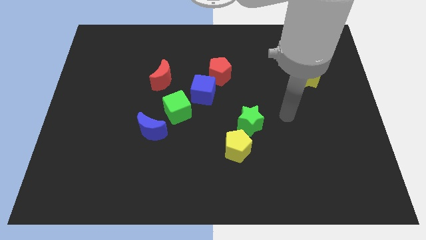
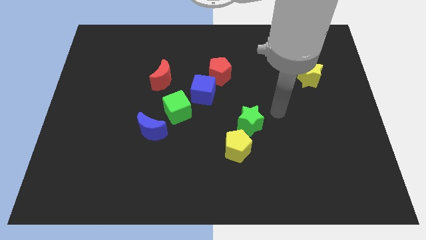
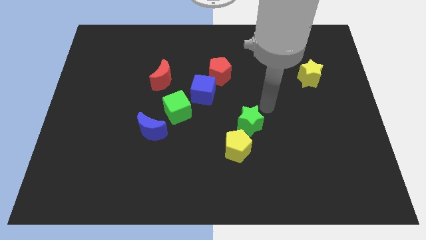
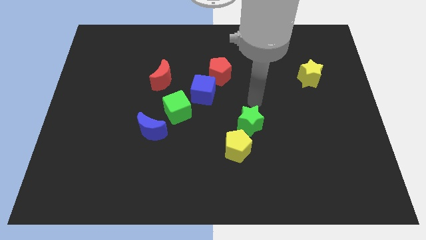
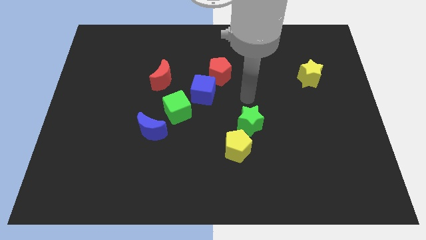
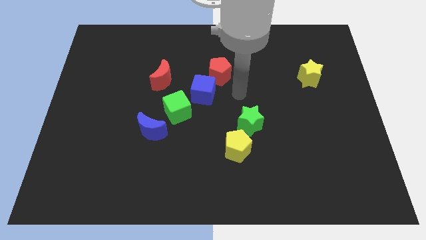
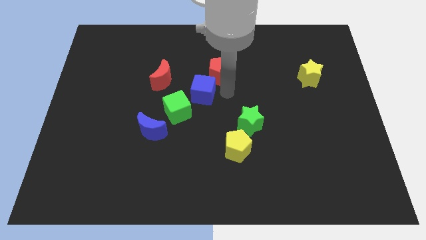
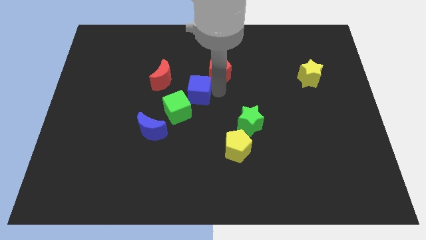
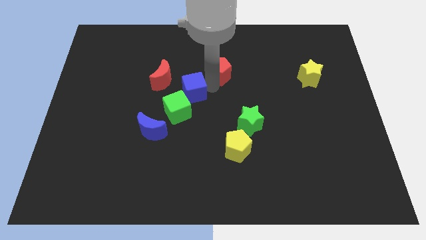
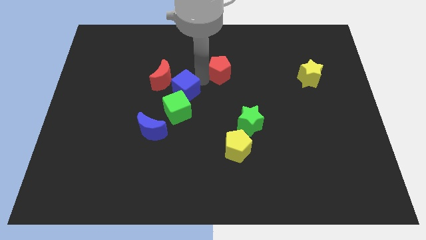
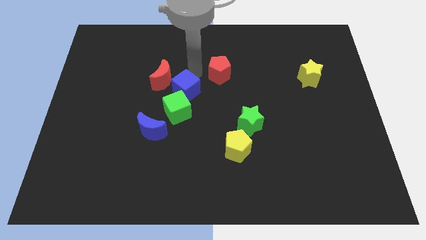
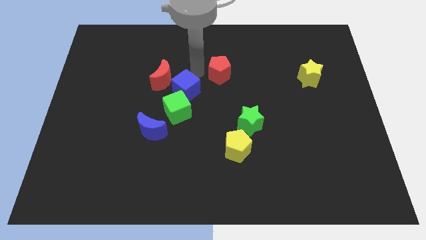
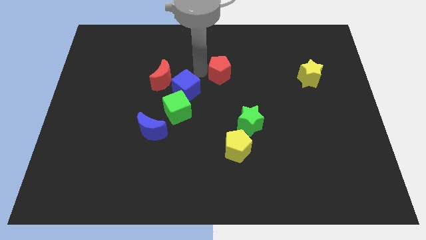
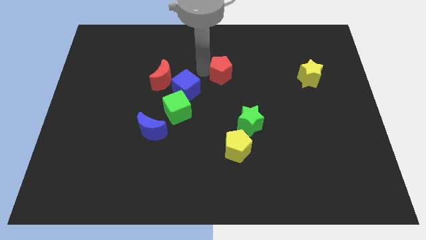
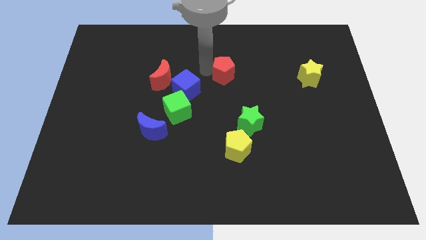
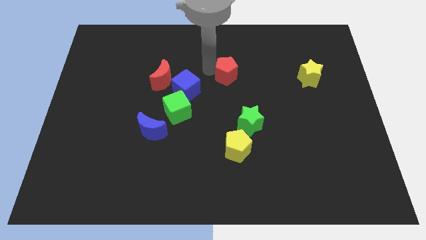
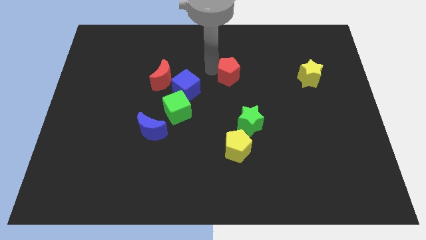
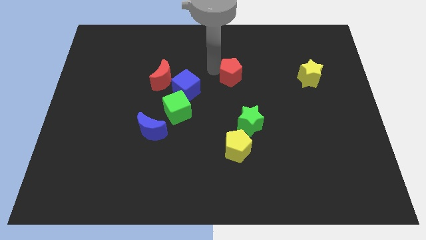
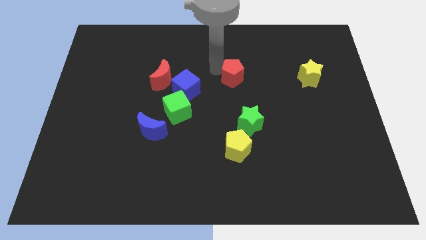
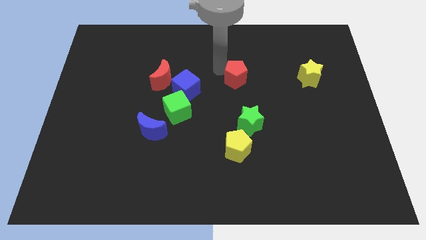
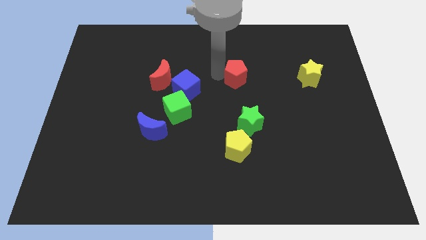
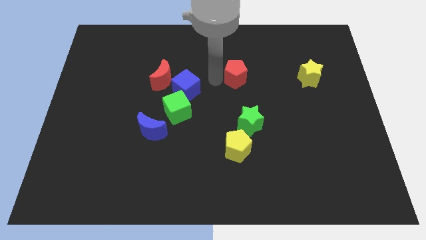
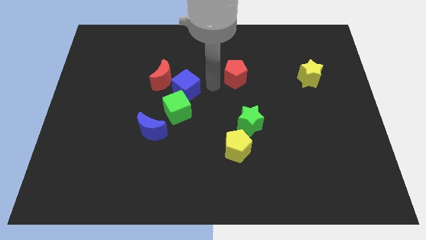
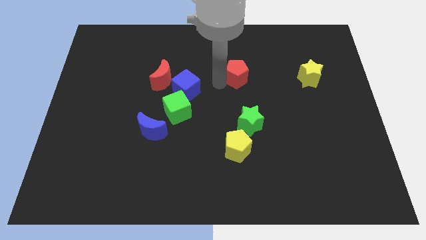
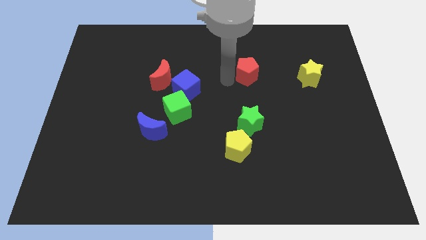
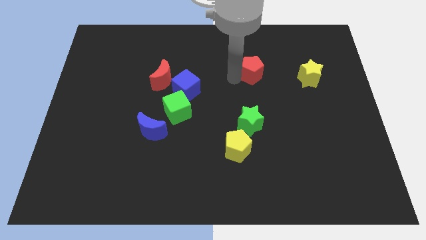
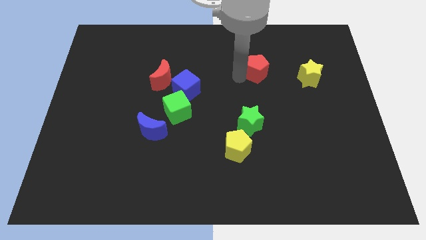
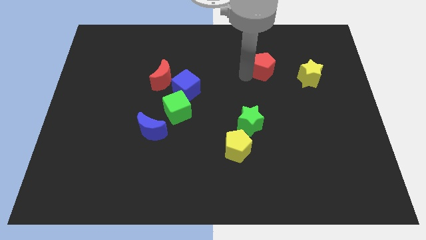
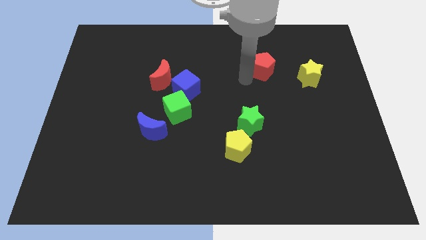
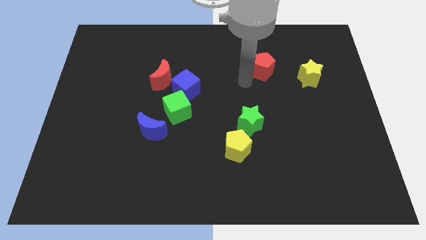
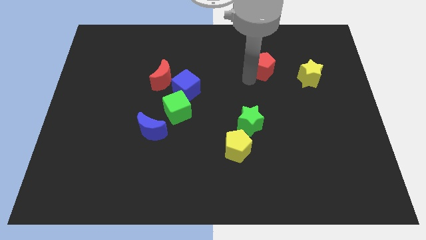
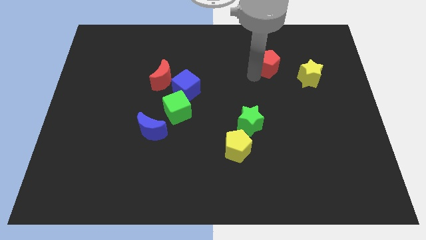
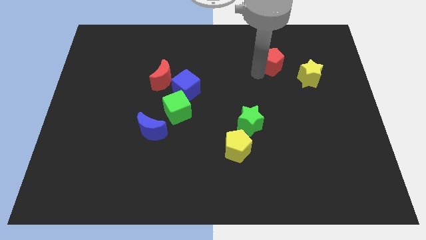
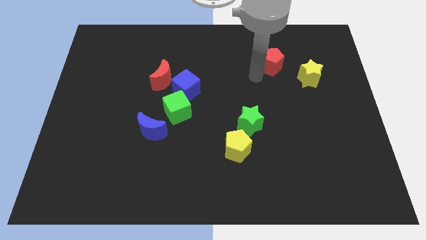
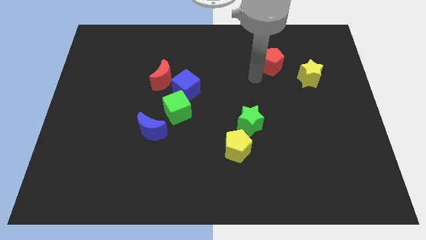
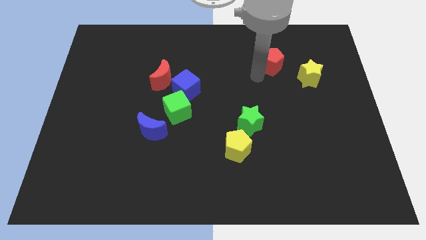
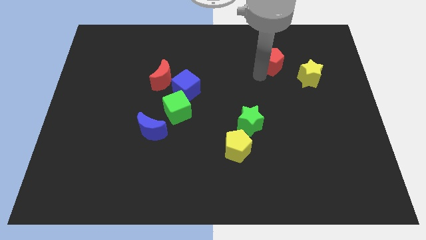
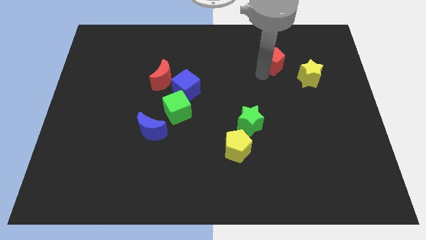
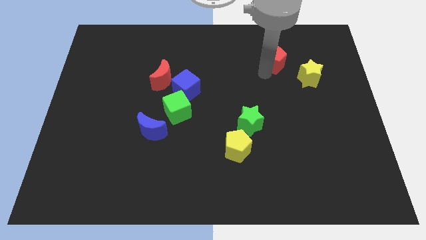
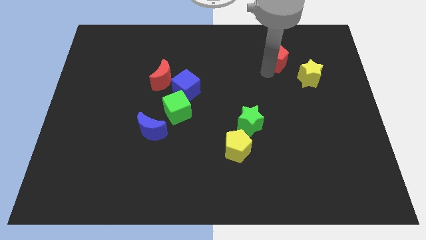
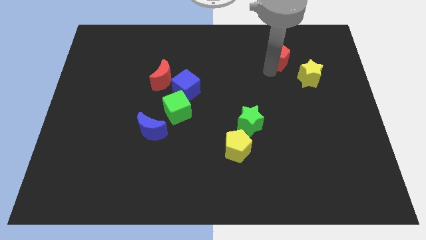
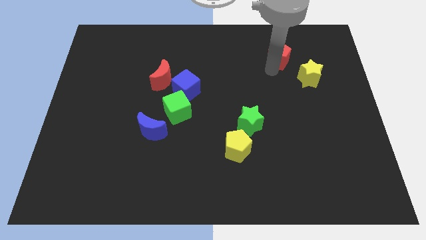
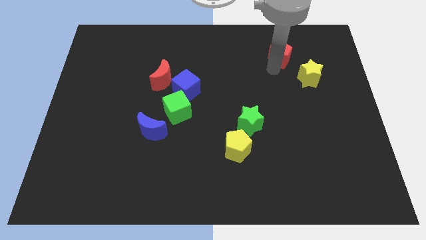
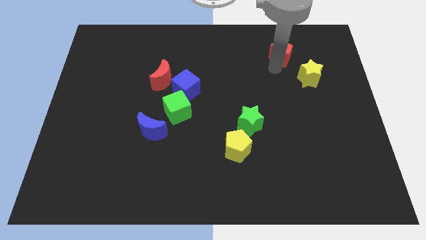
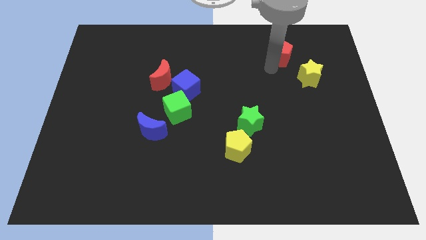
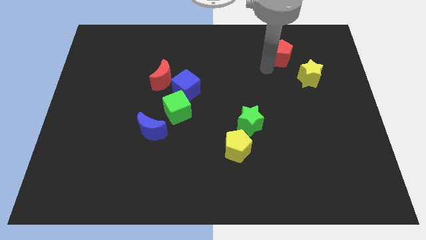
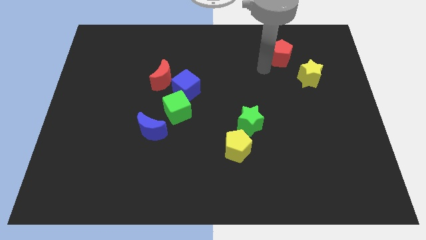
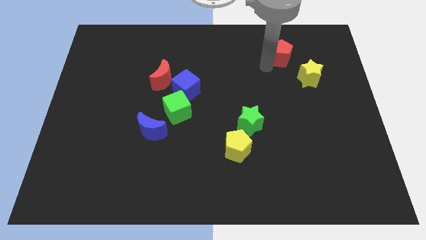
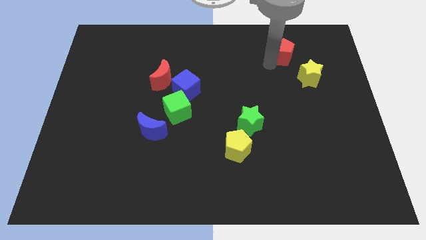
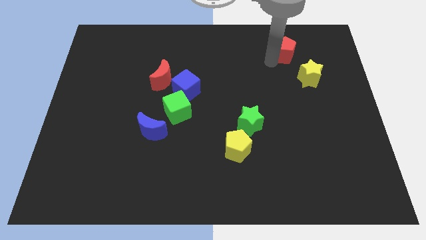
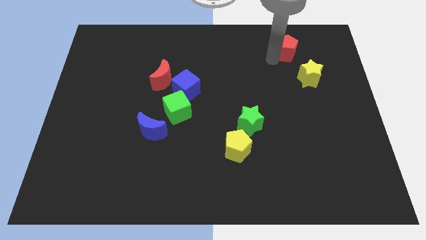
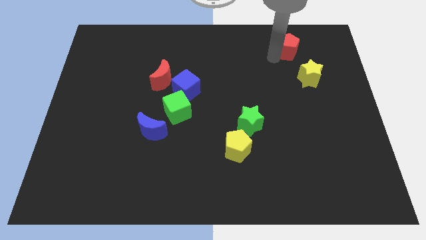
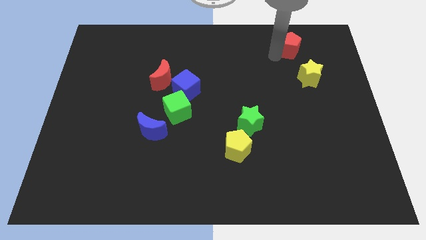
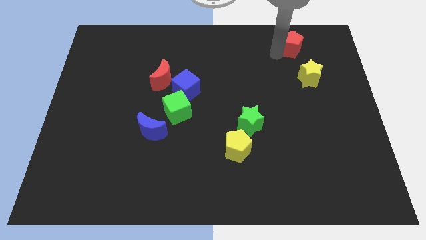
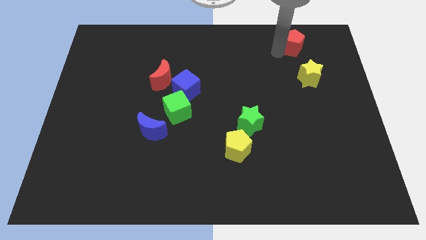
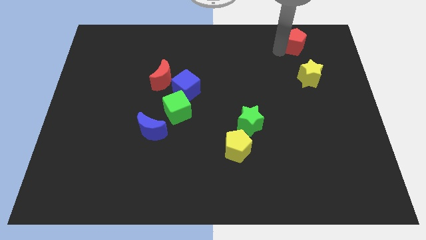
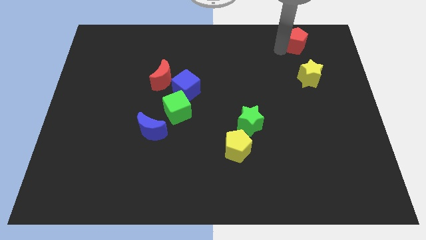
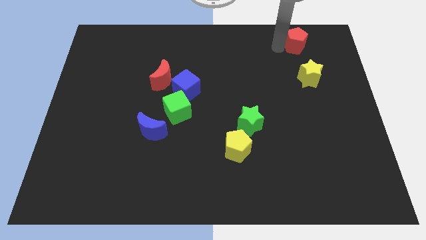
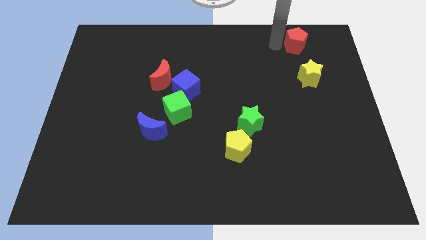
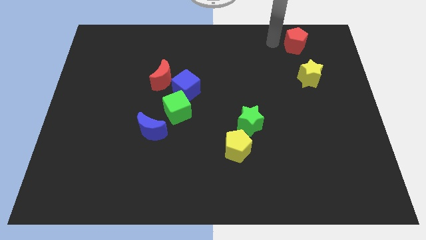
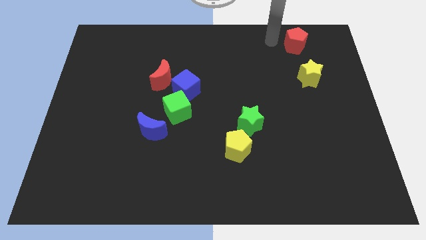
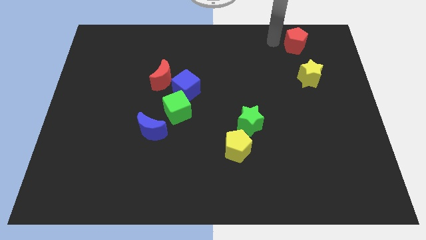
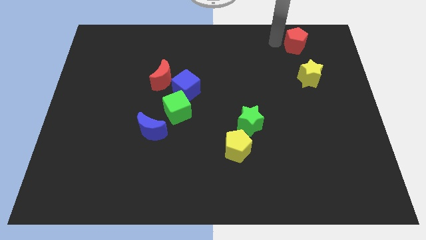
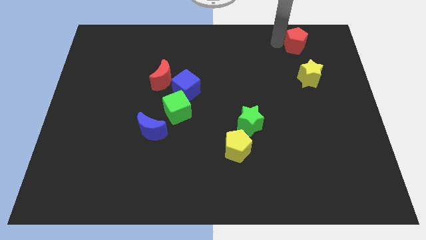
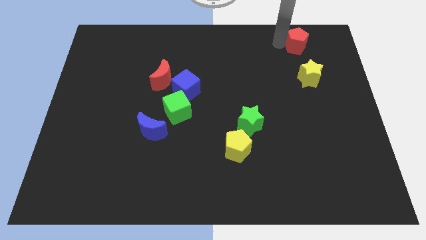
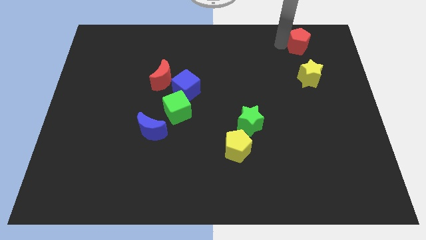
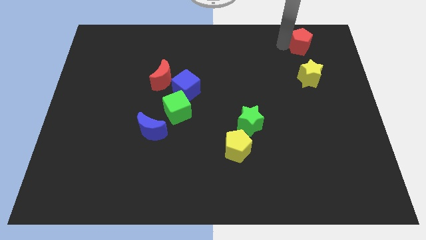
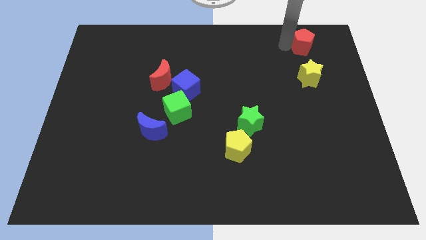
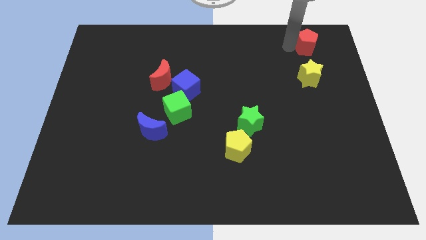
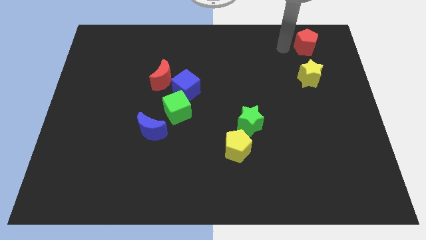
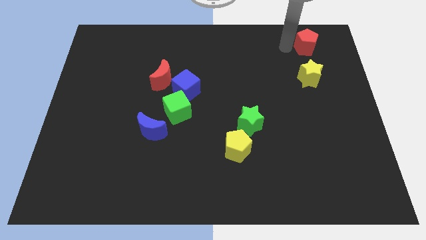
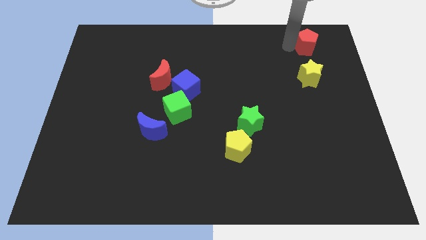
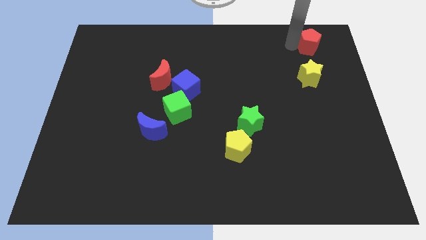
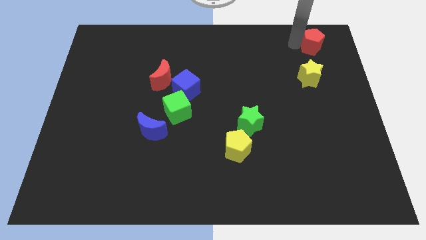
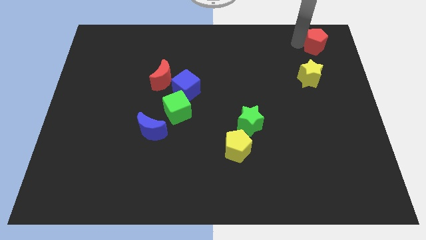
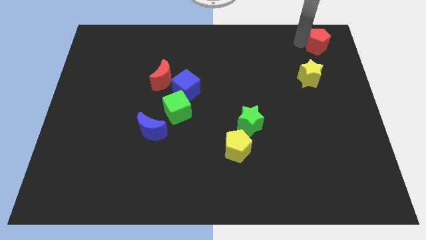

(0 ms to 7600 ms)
slide the red pentagon to the top right corner
